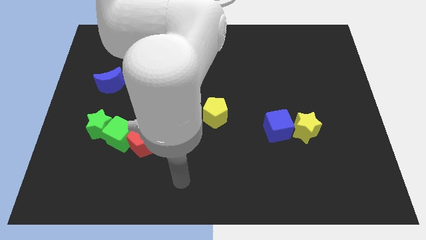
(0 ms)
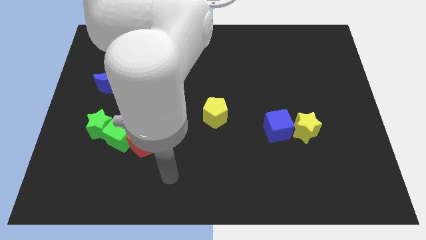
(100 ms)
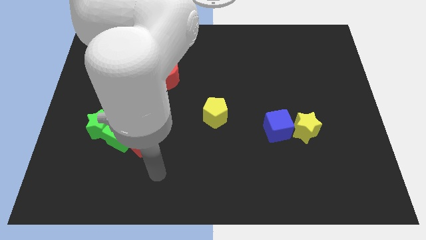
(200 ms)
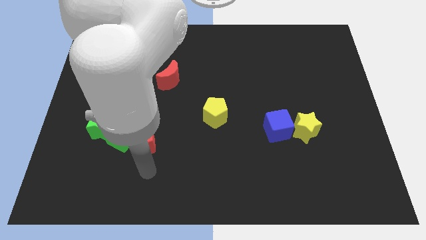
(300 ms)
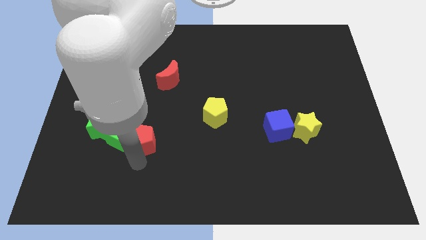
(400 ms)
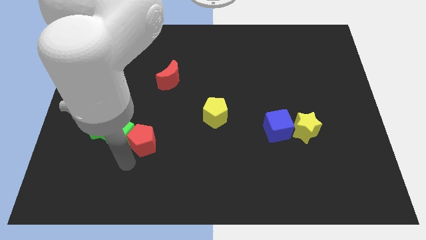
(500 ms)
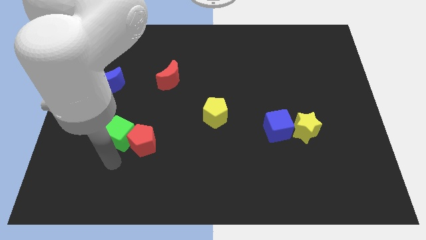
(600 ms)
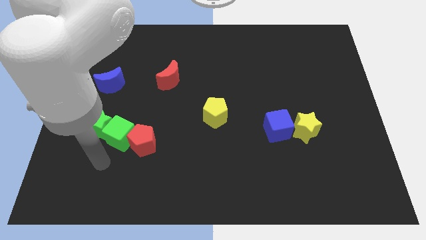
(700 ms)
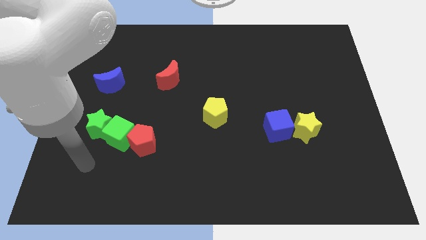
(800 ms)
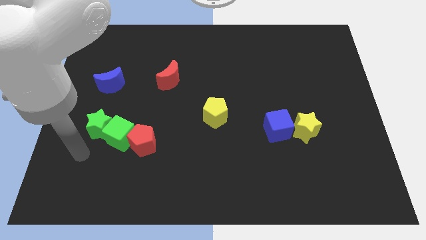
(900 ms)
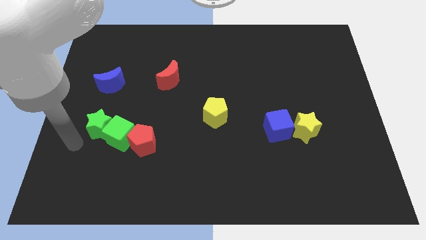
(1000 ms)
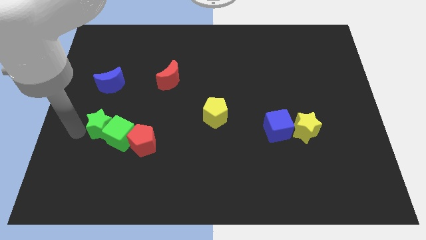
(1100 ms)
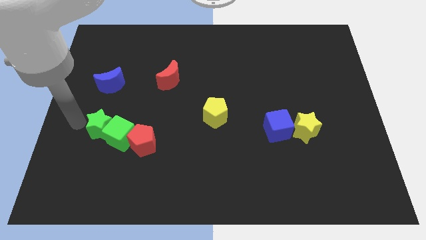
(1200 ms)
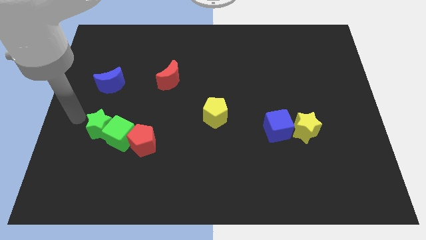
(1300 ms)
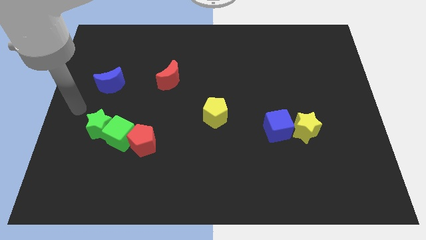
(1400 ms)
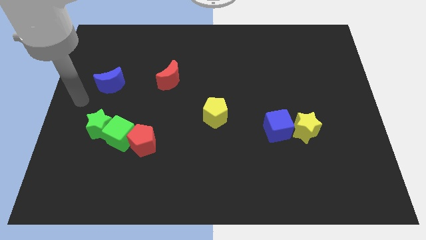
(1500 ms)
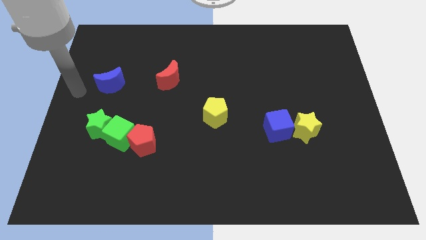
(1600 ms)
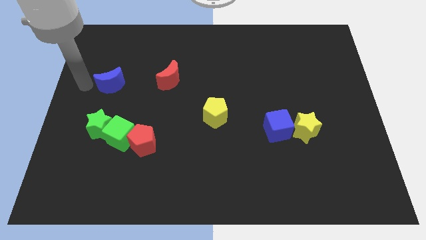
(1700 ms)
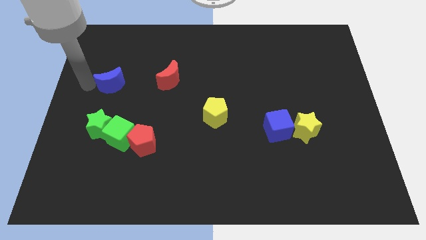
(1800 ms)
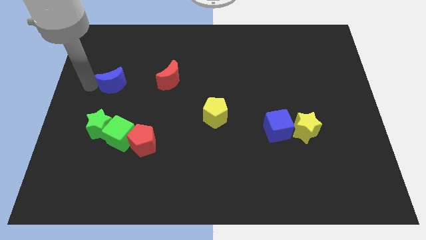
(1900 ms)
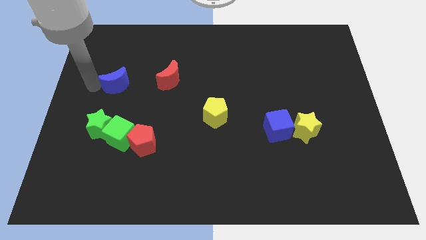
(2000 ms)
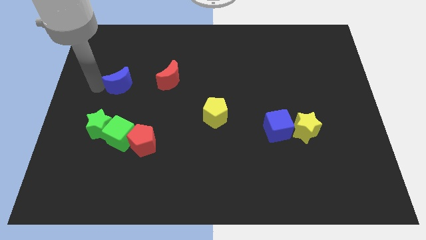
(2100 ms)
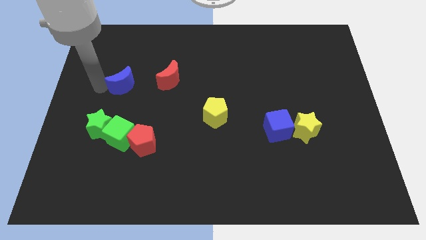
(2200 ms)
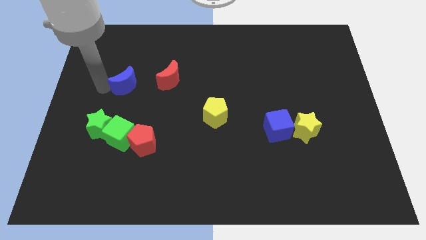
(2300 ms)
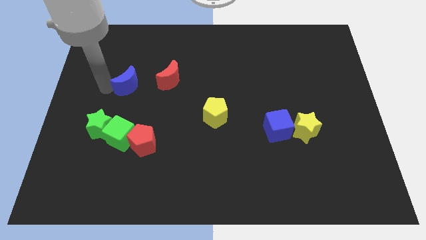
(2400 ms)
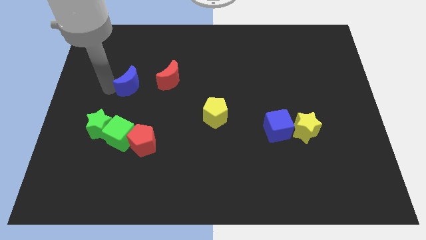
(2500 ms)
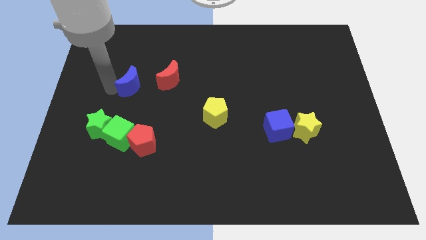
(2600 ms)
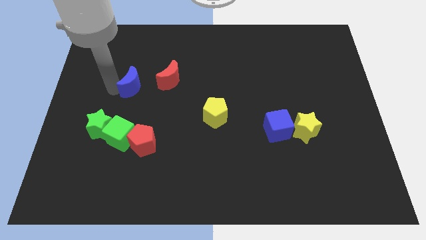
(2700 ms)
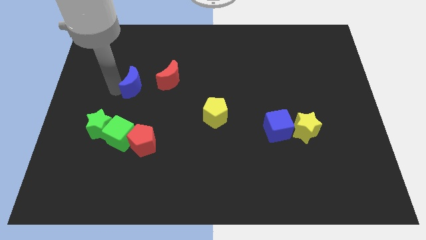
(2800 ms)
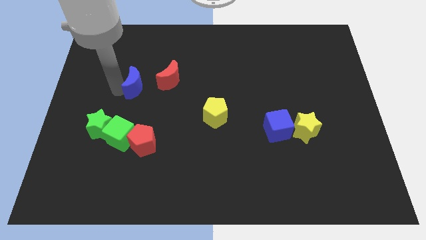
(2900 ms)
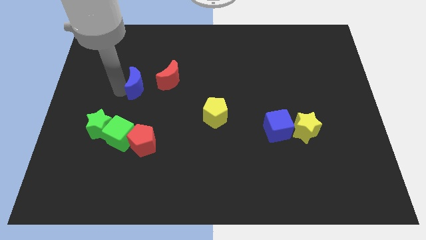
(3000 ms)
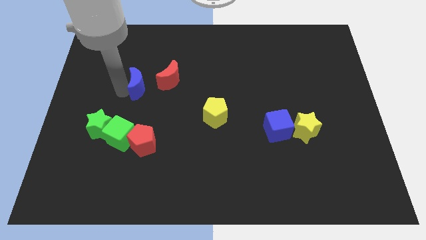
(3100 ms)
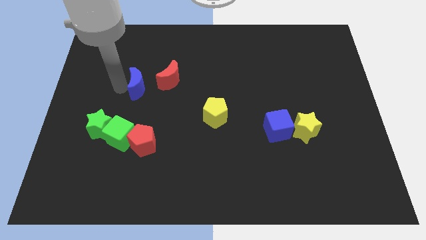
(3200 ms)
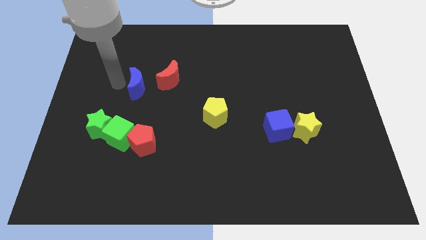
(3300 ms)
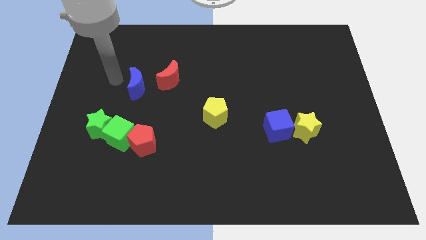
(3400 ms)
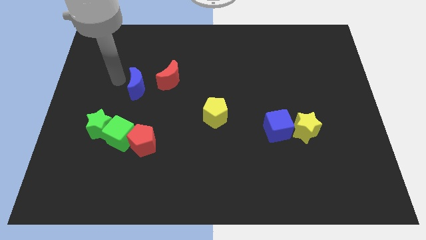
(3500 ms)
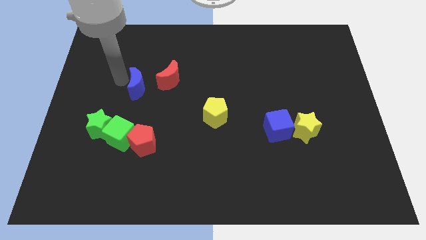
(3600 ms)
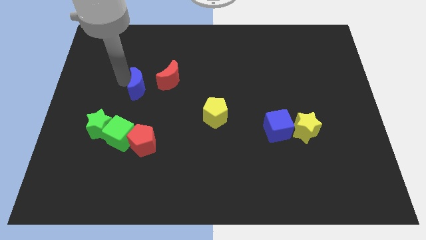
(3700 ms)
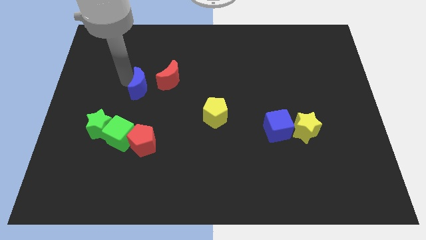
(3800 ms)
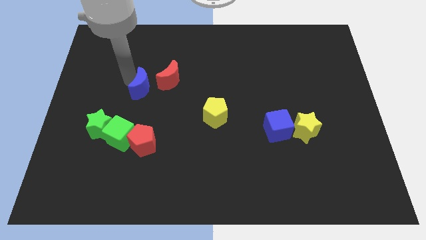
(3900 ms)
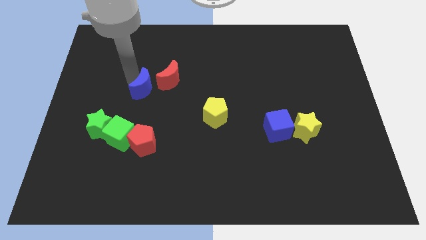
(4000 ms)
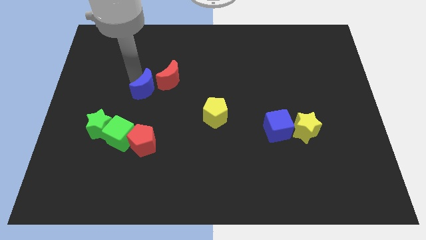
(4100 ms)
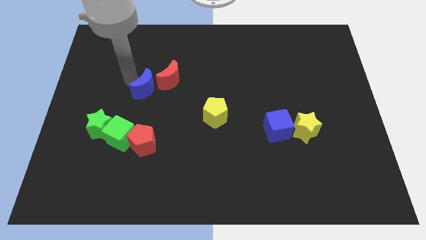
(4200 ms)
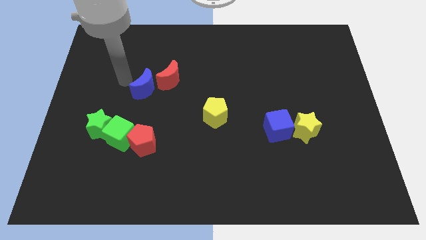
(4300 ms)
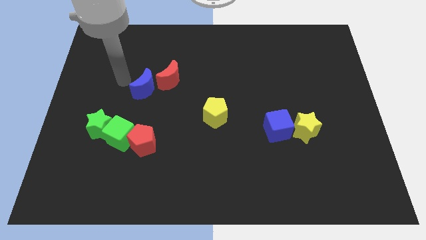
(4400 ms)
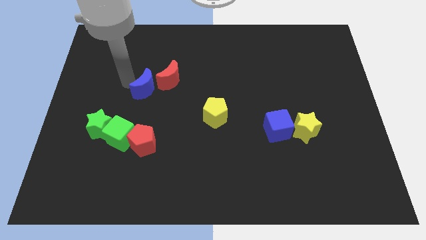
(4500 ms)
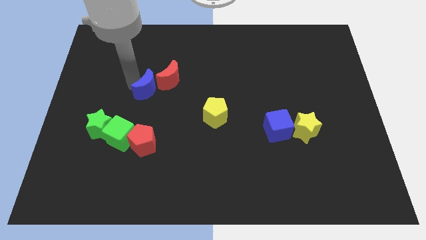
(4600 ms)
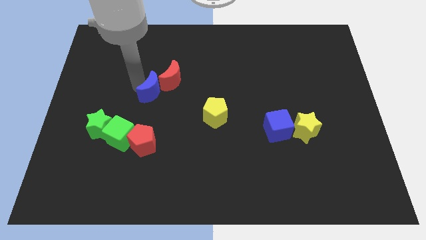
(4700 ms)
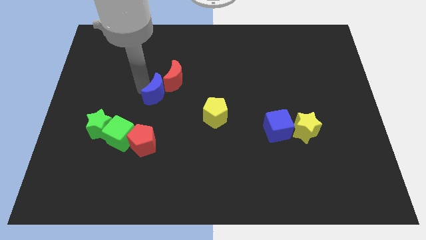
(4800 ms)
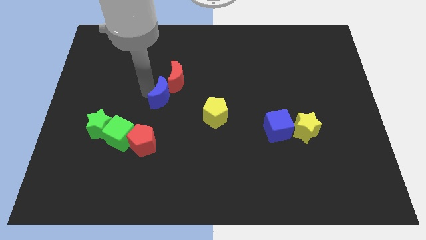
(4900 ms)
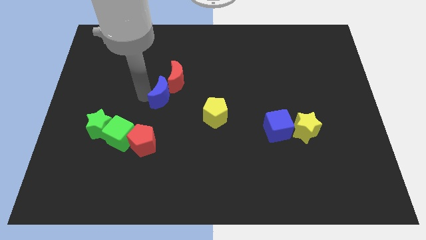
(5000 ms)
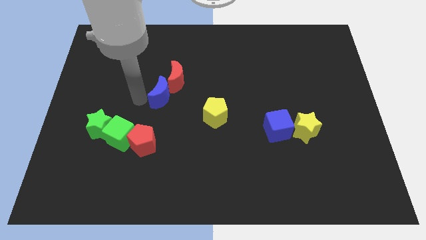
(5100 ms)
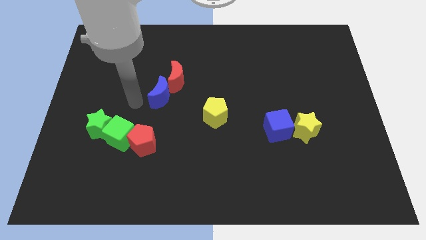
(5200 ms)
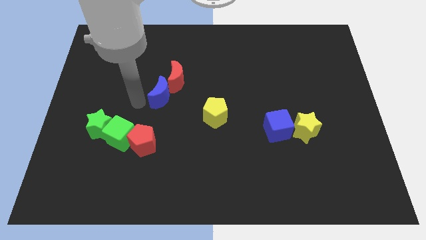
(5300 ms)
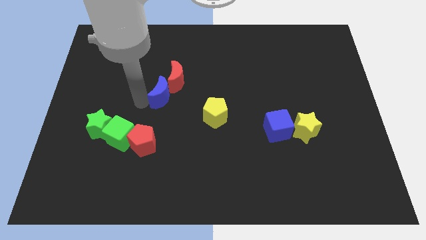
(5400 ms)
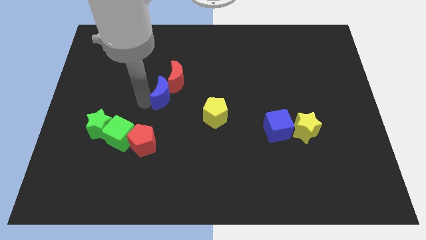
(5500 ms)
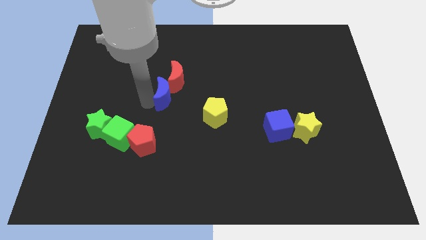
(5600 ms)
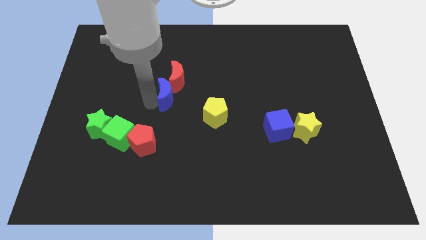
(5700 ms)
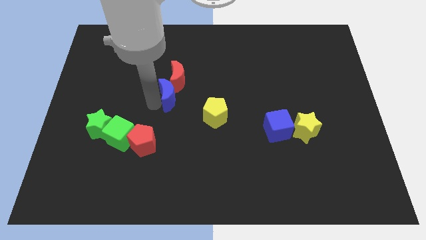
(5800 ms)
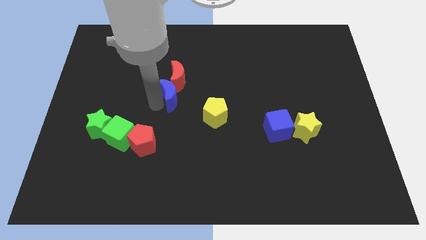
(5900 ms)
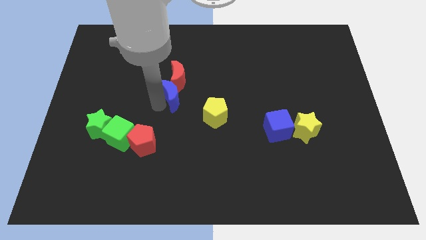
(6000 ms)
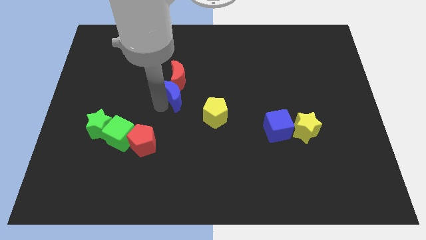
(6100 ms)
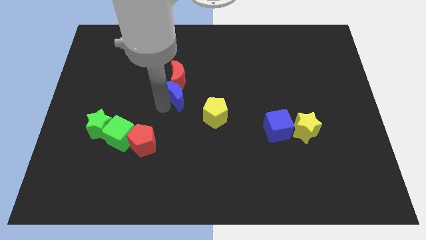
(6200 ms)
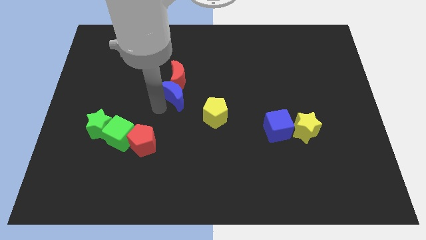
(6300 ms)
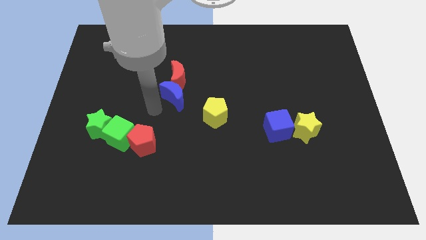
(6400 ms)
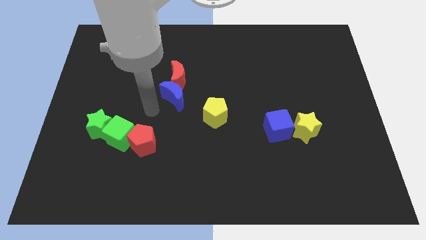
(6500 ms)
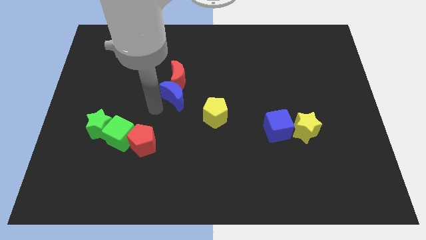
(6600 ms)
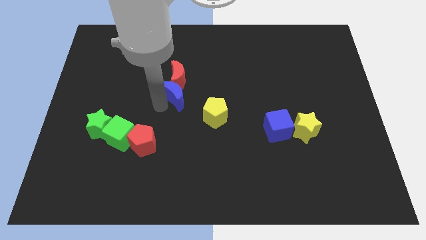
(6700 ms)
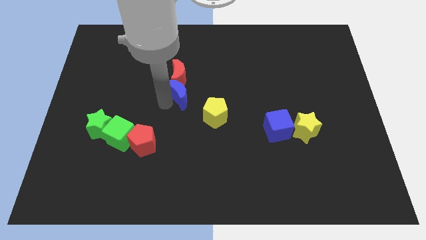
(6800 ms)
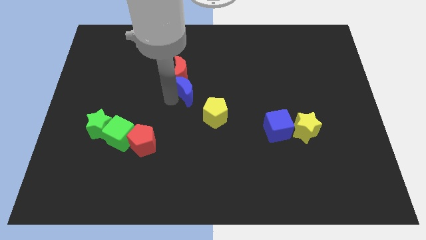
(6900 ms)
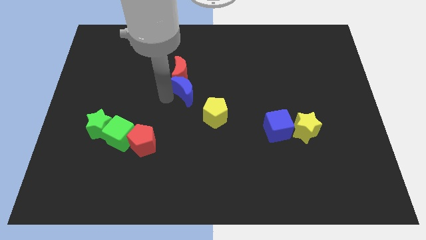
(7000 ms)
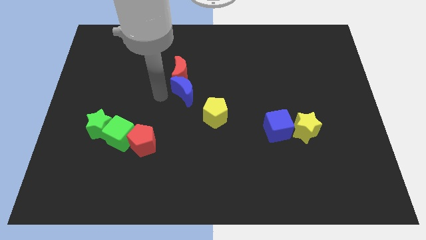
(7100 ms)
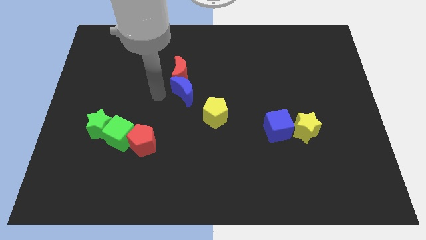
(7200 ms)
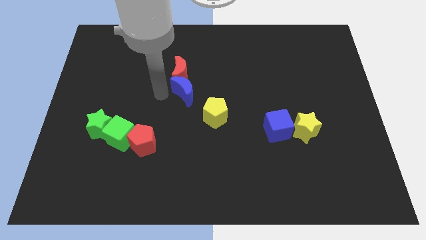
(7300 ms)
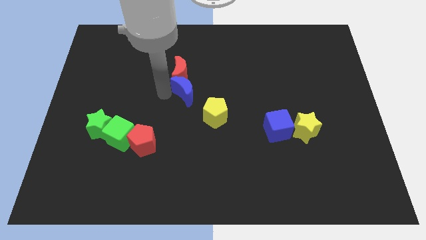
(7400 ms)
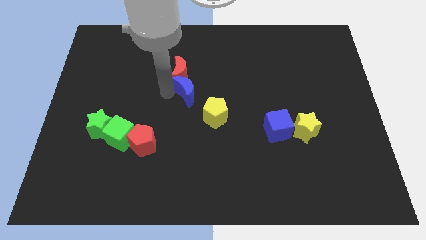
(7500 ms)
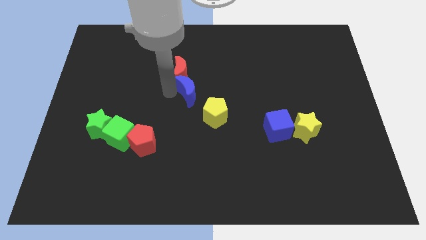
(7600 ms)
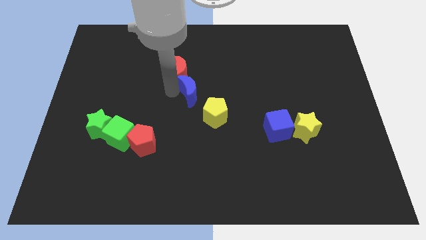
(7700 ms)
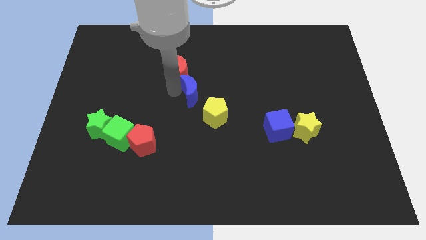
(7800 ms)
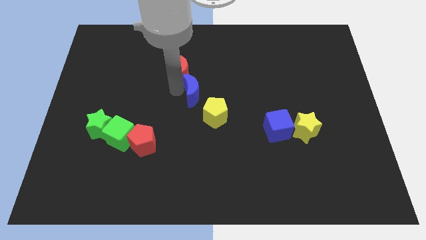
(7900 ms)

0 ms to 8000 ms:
slide the blue moon right
